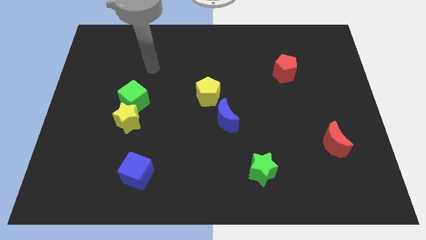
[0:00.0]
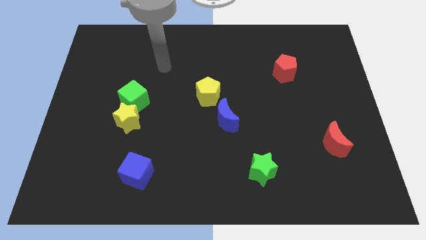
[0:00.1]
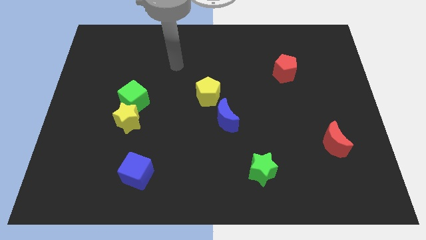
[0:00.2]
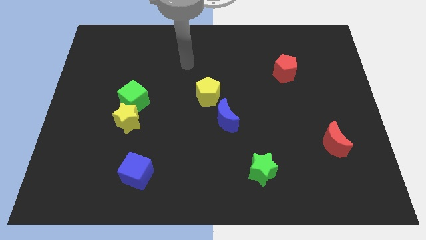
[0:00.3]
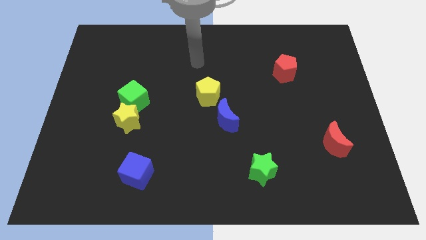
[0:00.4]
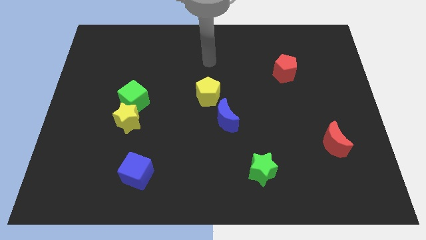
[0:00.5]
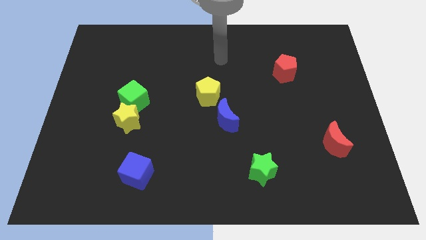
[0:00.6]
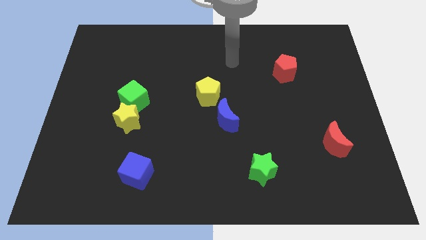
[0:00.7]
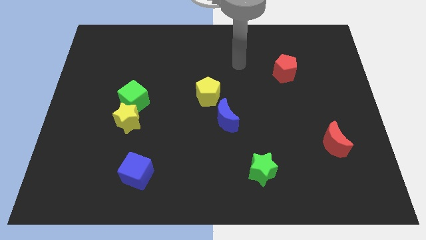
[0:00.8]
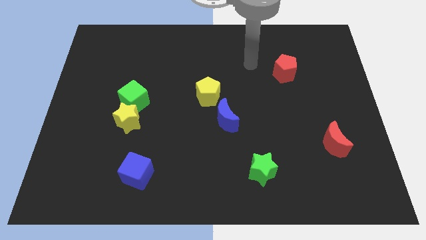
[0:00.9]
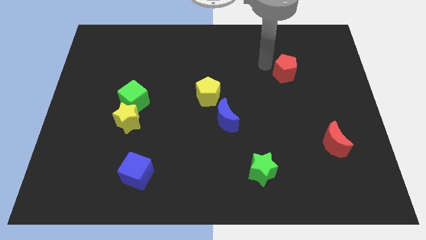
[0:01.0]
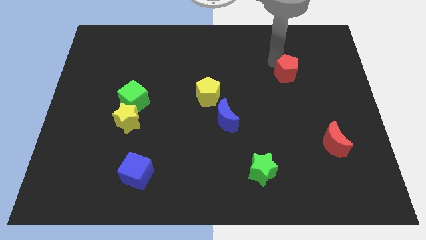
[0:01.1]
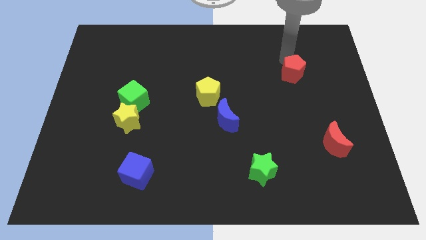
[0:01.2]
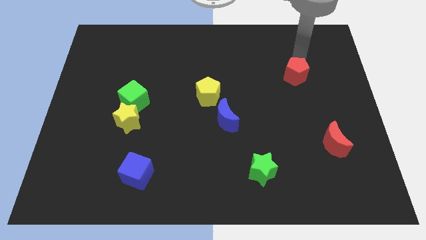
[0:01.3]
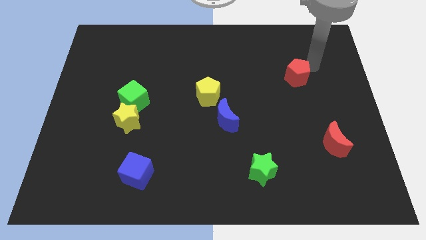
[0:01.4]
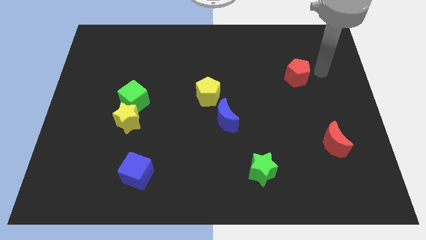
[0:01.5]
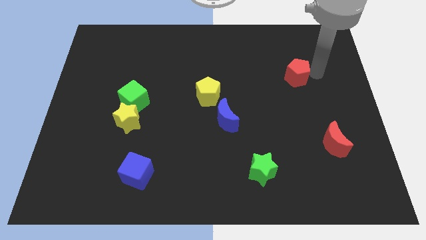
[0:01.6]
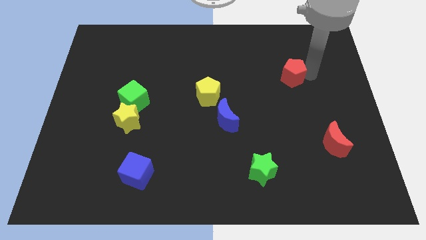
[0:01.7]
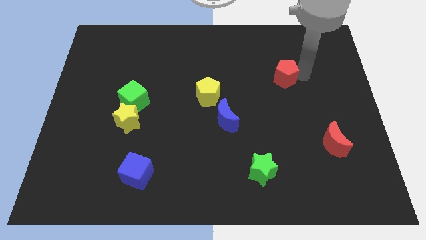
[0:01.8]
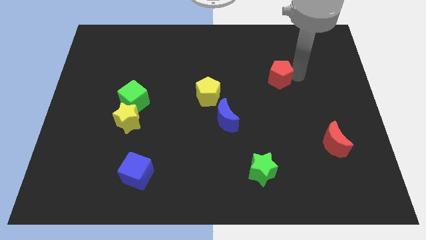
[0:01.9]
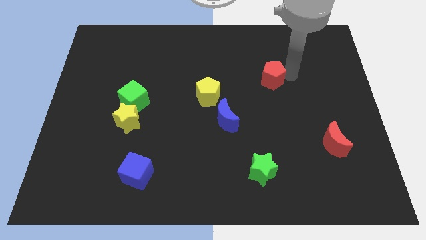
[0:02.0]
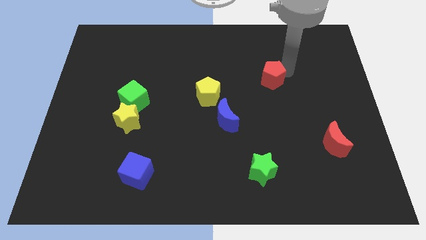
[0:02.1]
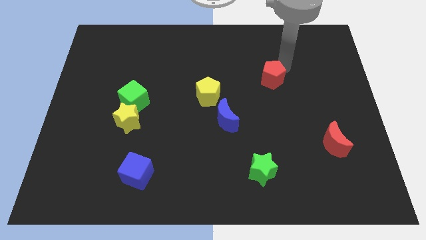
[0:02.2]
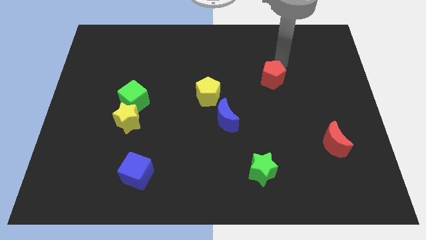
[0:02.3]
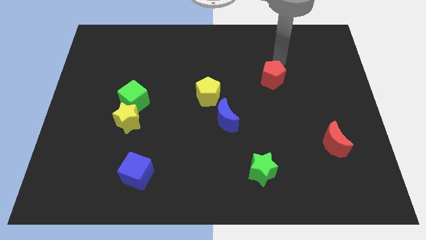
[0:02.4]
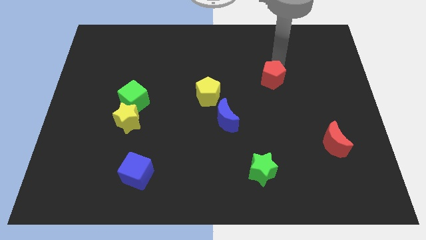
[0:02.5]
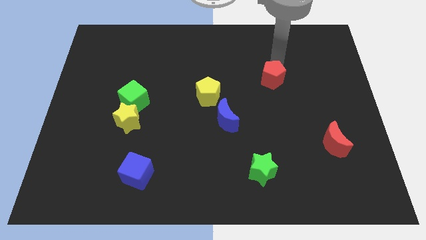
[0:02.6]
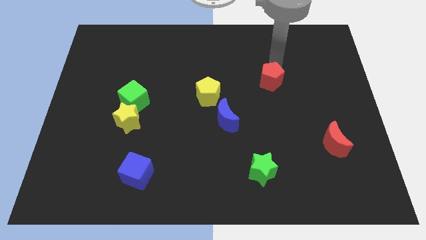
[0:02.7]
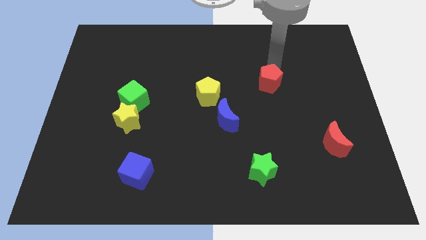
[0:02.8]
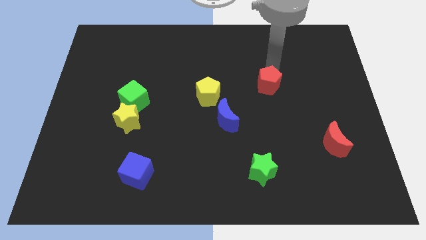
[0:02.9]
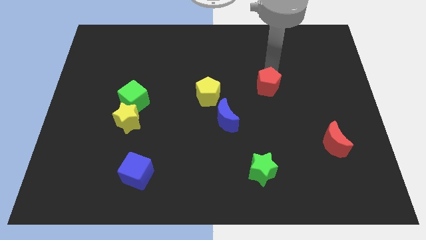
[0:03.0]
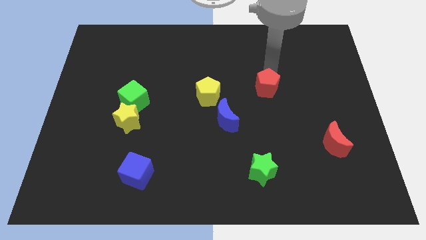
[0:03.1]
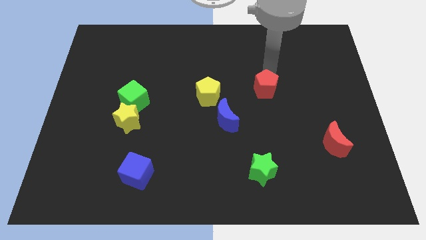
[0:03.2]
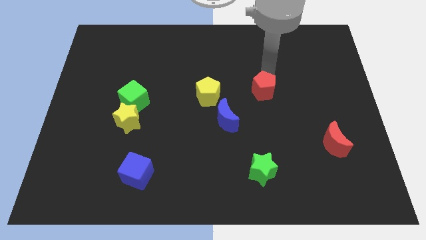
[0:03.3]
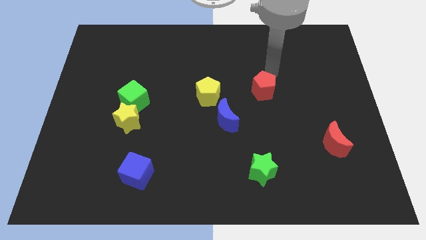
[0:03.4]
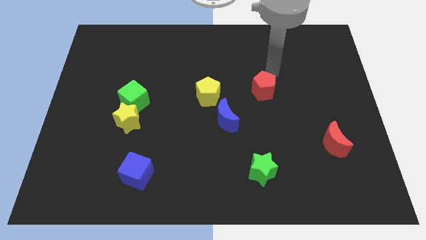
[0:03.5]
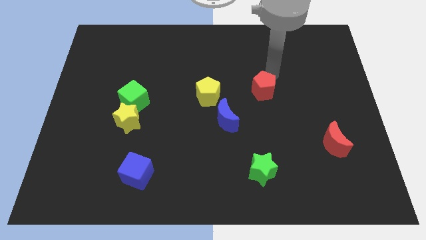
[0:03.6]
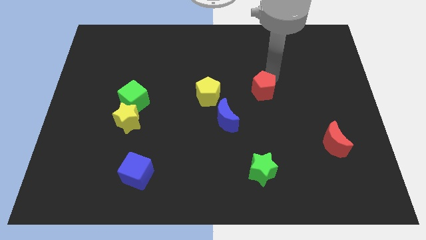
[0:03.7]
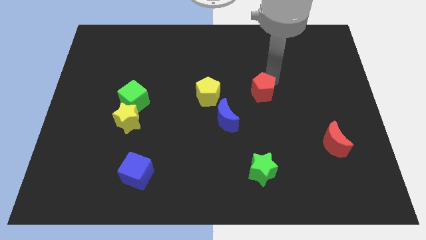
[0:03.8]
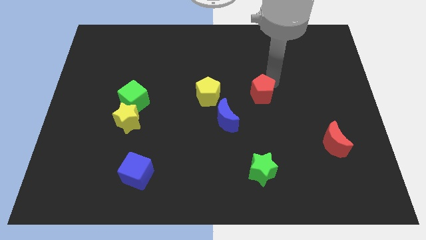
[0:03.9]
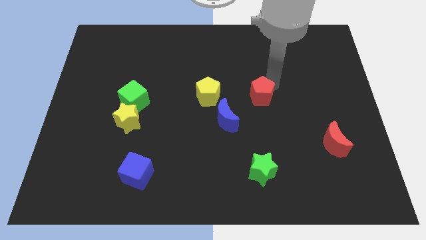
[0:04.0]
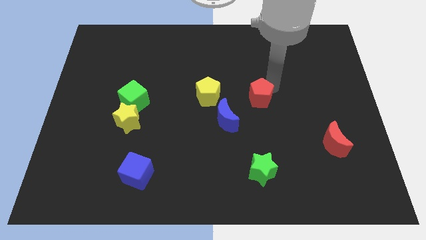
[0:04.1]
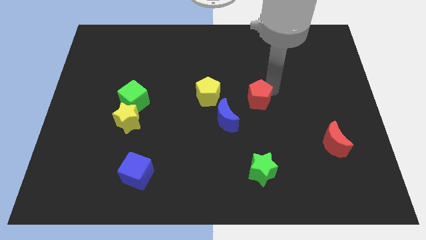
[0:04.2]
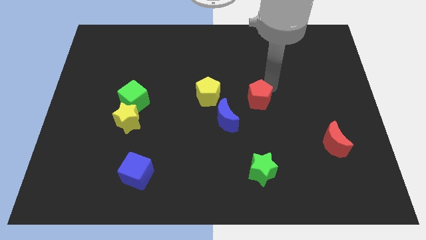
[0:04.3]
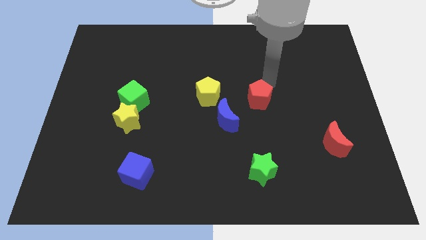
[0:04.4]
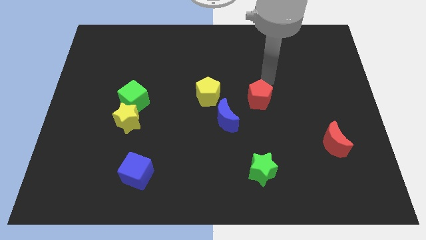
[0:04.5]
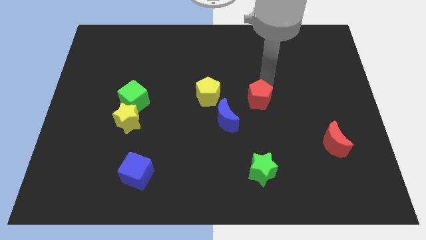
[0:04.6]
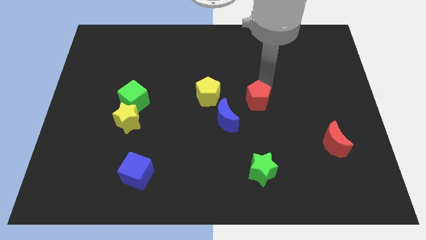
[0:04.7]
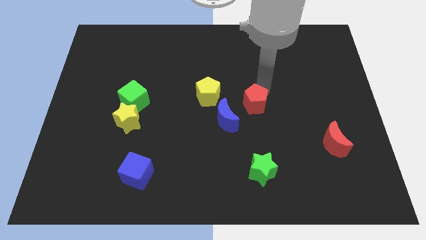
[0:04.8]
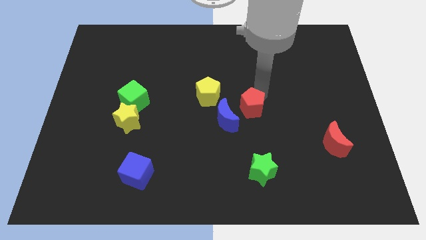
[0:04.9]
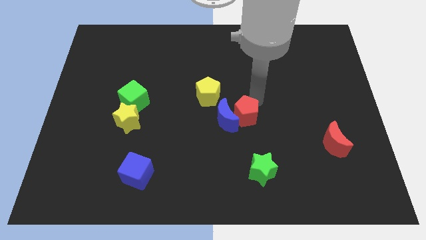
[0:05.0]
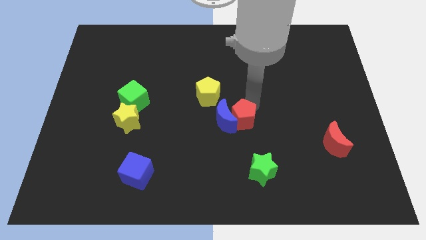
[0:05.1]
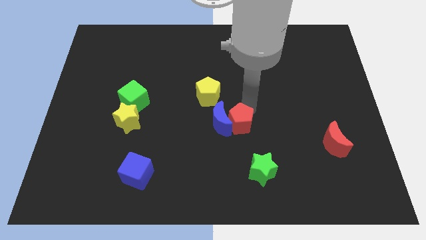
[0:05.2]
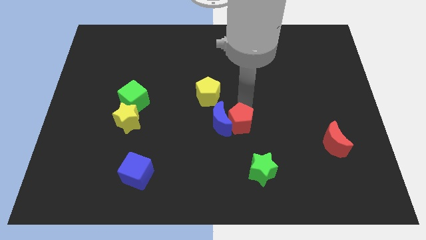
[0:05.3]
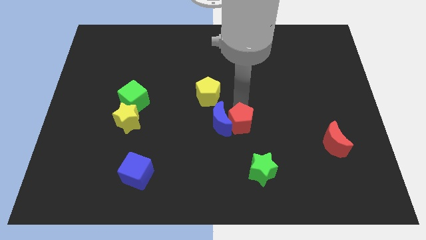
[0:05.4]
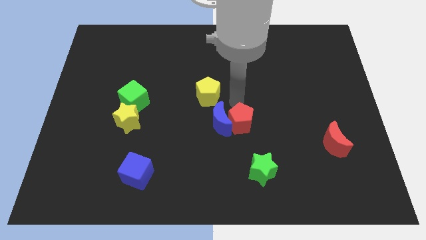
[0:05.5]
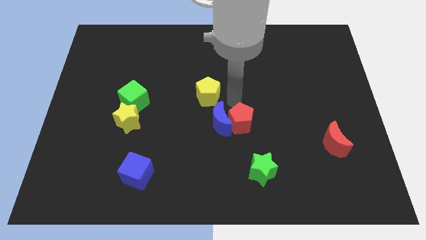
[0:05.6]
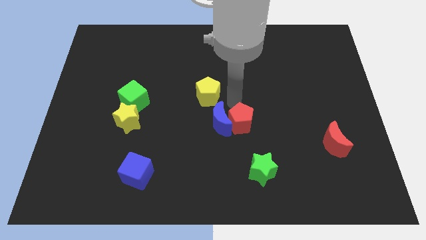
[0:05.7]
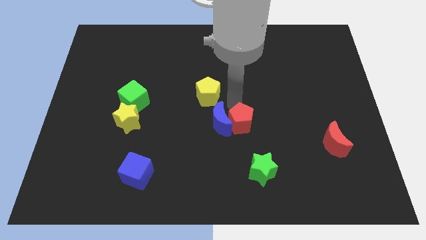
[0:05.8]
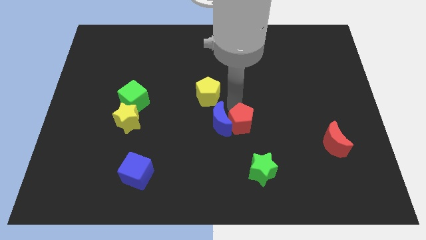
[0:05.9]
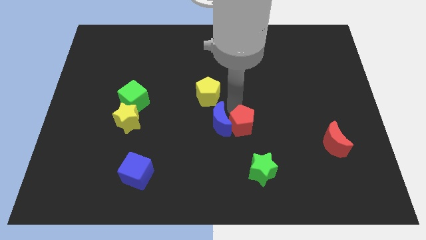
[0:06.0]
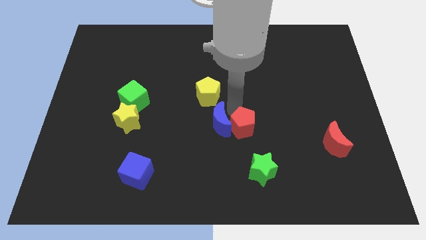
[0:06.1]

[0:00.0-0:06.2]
push the red pentagon diagonally down and left

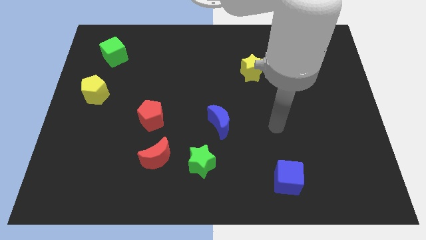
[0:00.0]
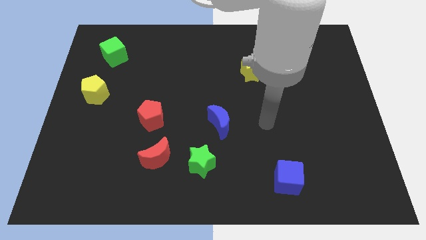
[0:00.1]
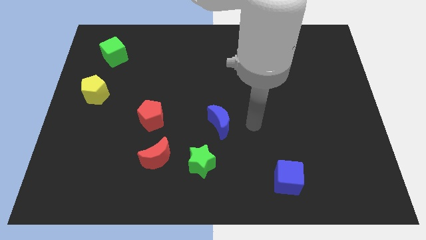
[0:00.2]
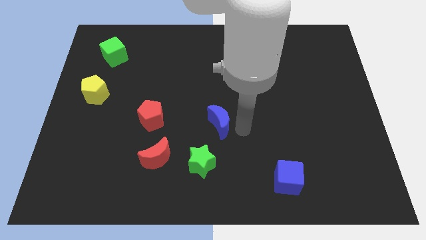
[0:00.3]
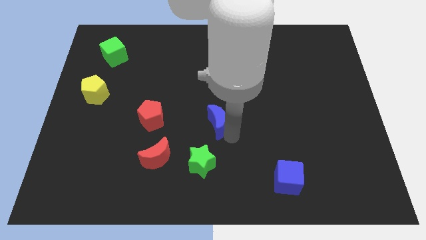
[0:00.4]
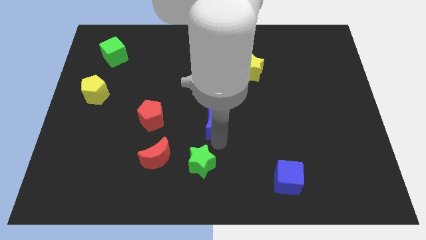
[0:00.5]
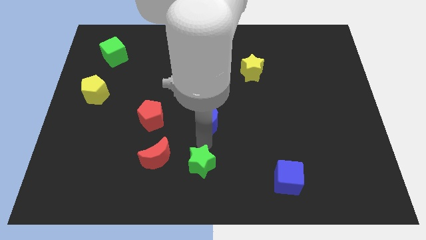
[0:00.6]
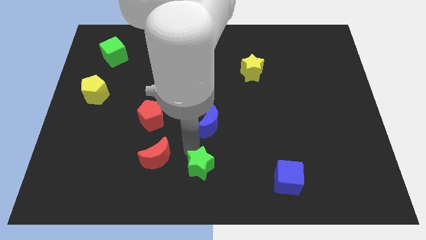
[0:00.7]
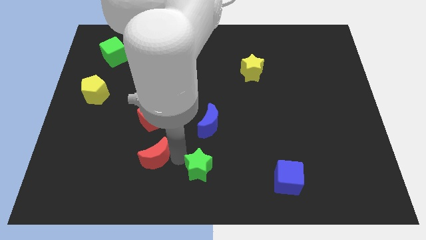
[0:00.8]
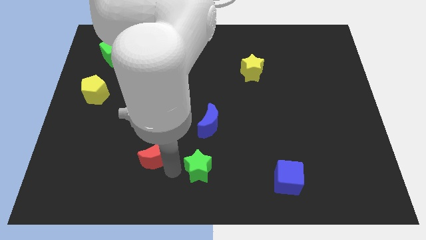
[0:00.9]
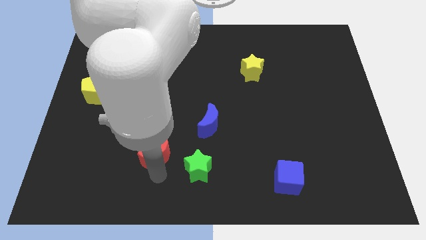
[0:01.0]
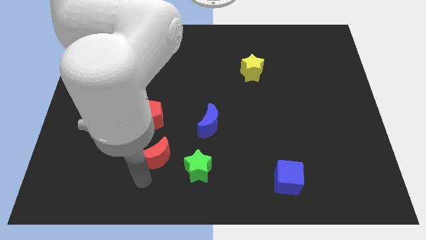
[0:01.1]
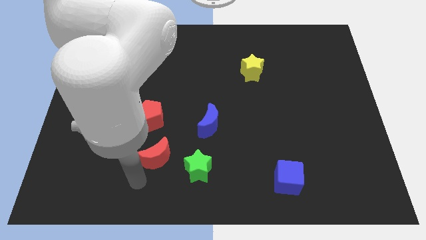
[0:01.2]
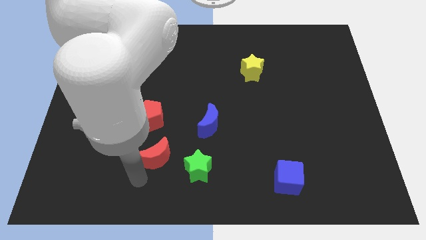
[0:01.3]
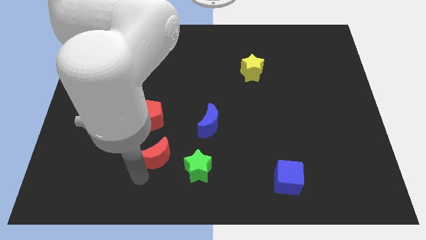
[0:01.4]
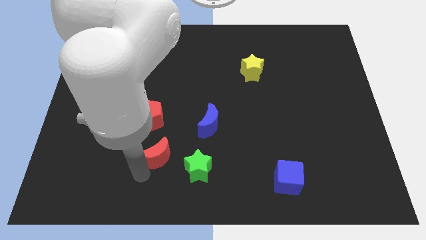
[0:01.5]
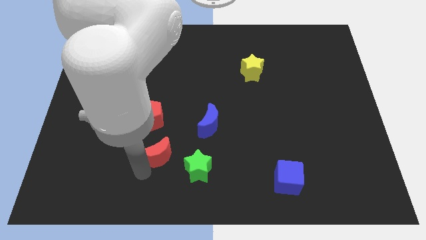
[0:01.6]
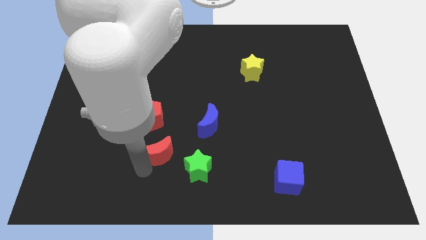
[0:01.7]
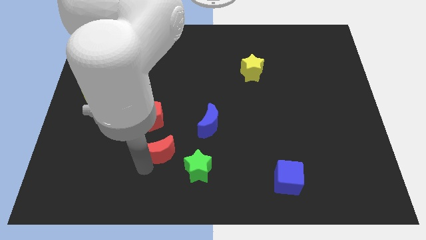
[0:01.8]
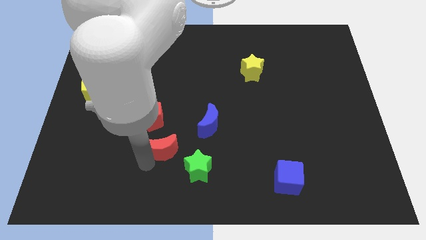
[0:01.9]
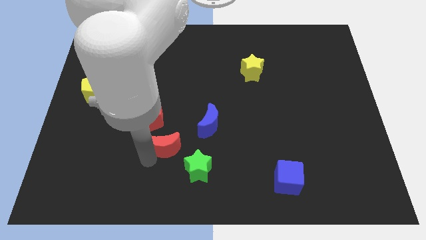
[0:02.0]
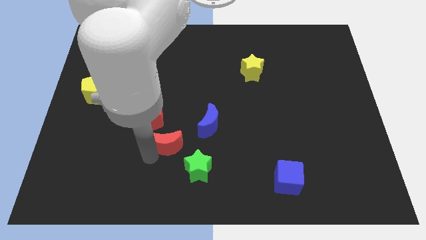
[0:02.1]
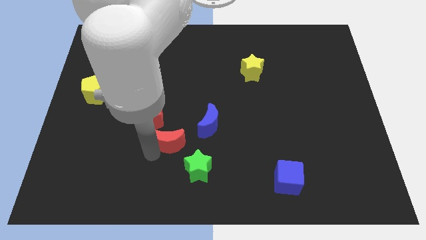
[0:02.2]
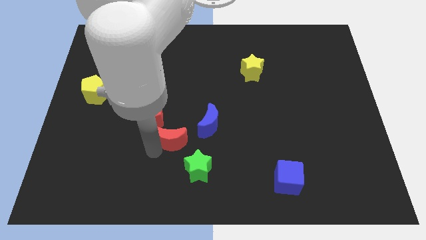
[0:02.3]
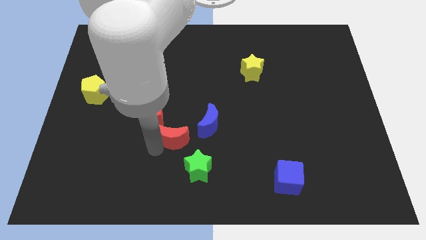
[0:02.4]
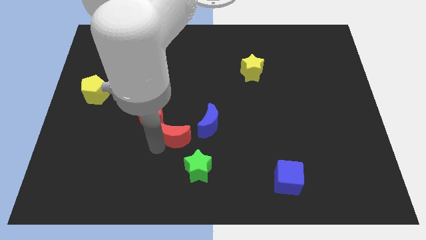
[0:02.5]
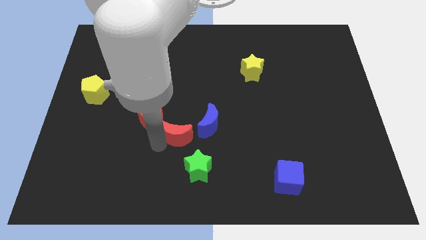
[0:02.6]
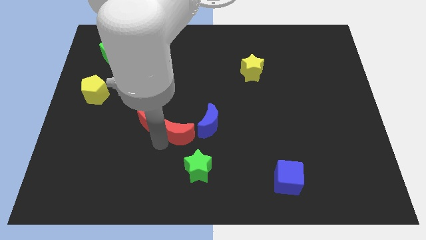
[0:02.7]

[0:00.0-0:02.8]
push the red moon diagonally up and to the right somewhat
